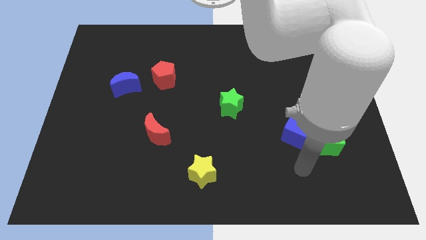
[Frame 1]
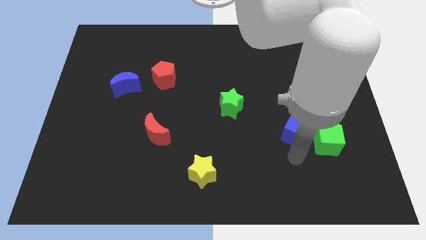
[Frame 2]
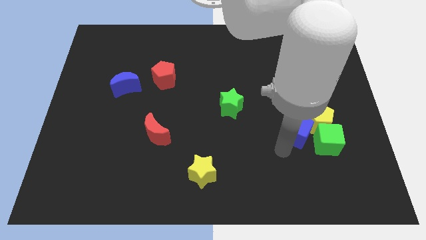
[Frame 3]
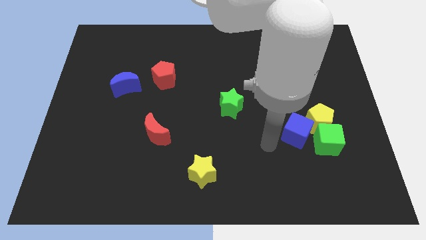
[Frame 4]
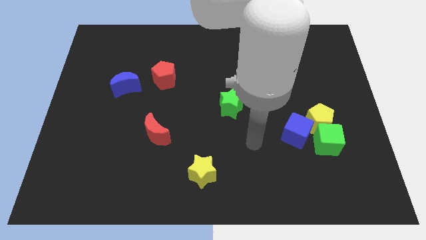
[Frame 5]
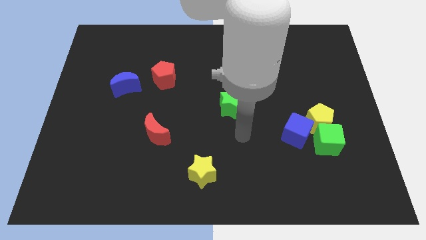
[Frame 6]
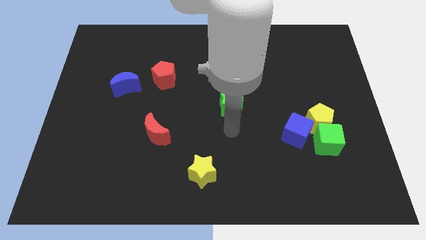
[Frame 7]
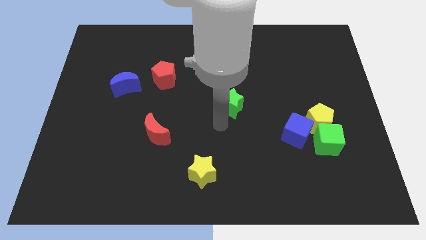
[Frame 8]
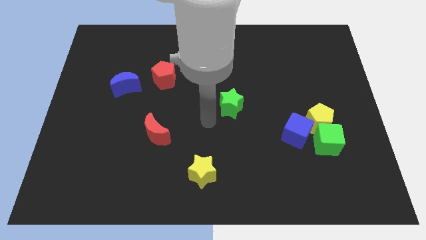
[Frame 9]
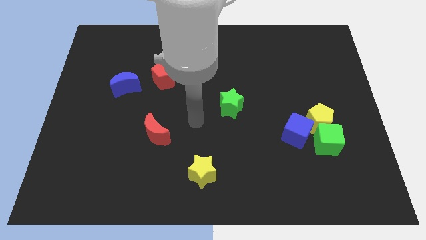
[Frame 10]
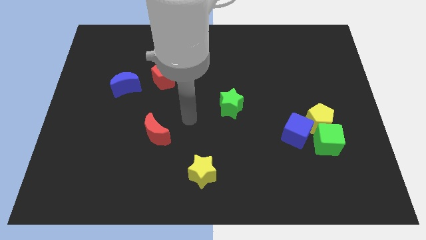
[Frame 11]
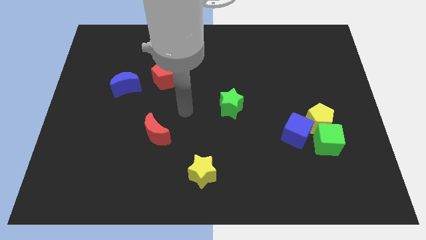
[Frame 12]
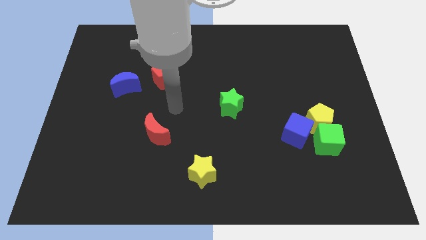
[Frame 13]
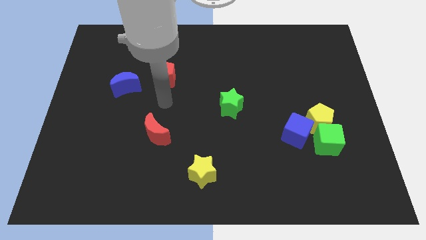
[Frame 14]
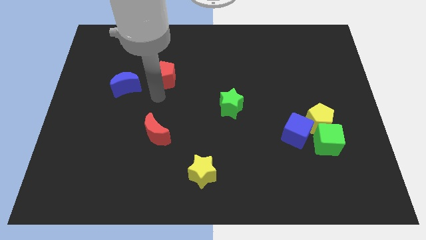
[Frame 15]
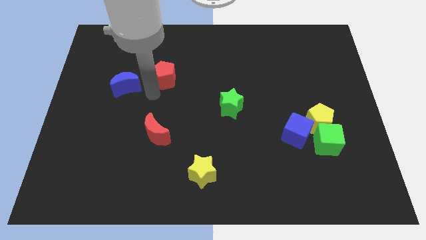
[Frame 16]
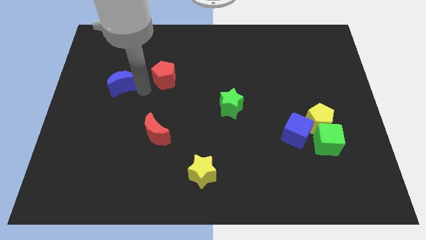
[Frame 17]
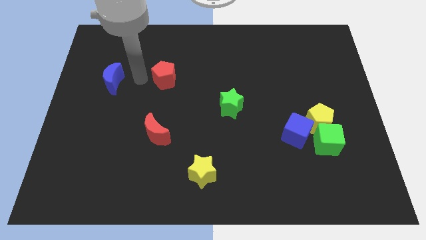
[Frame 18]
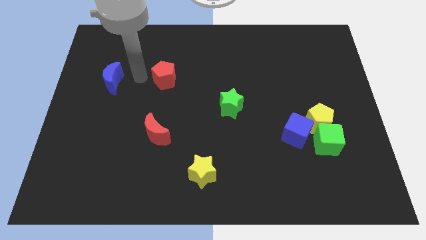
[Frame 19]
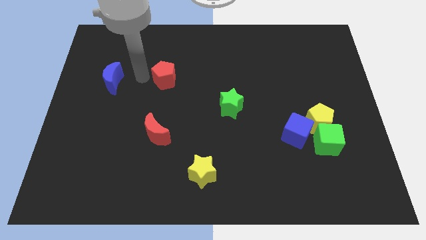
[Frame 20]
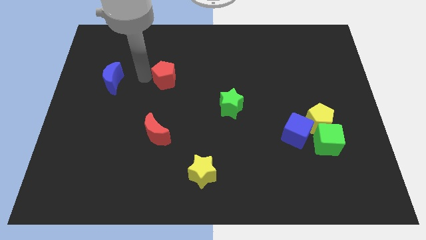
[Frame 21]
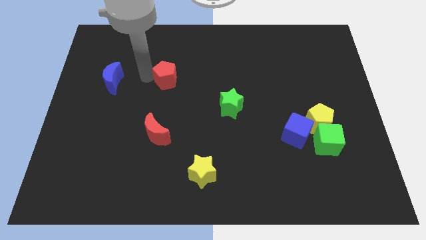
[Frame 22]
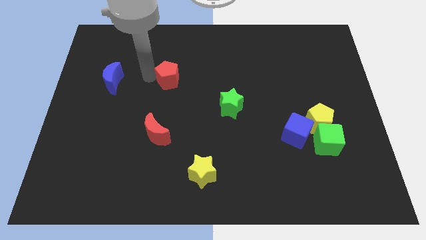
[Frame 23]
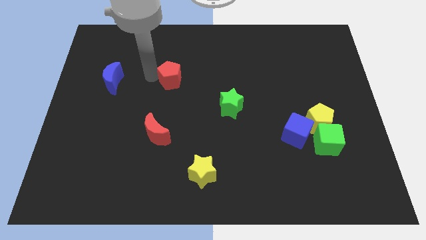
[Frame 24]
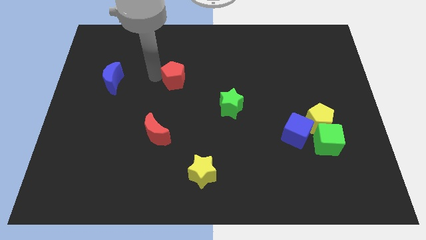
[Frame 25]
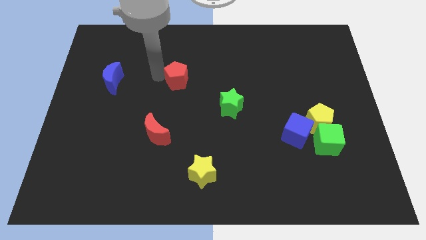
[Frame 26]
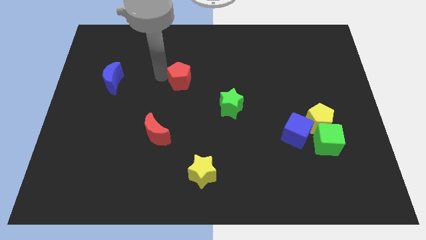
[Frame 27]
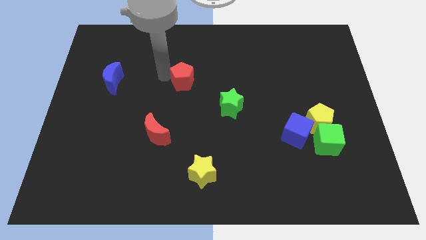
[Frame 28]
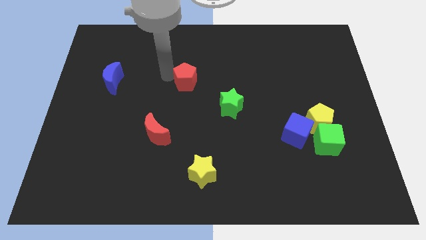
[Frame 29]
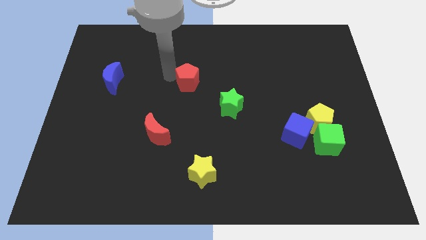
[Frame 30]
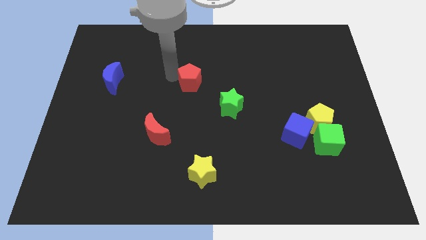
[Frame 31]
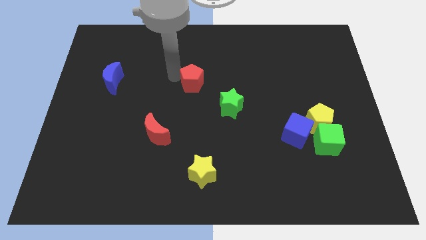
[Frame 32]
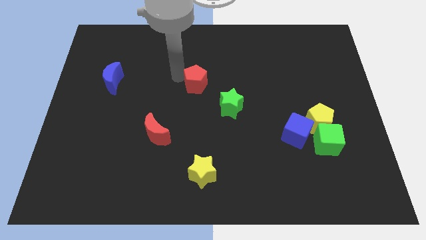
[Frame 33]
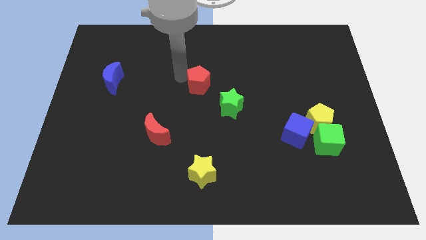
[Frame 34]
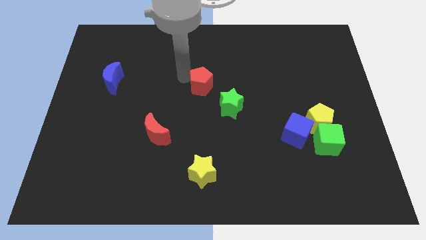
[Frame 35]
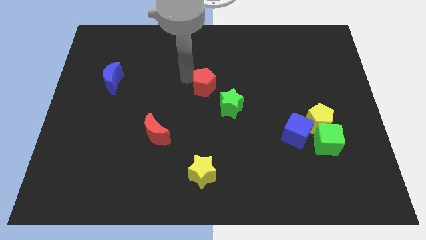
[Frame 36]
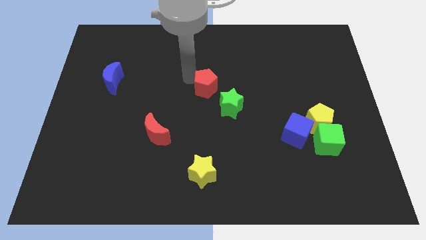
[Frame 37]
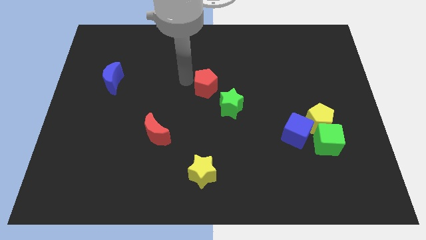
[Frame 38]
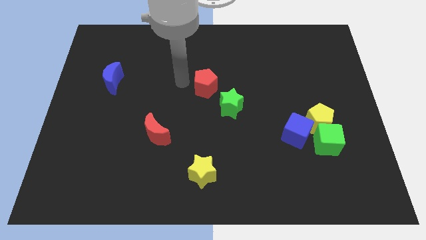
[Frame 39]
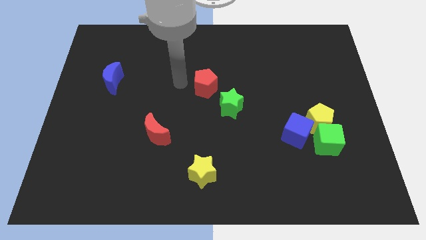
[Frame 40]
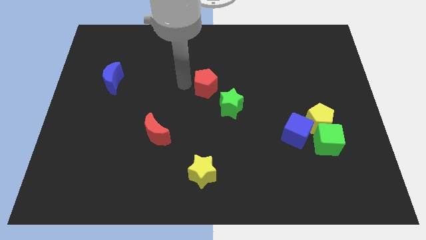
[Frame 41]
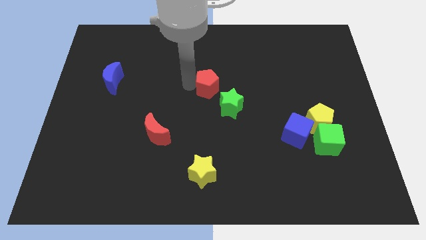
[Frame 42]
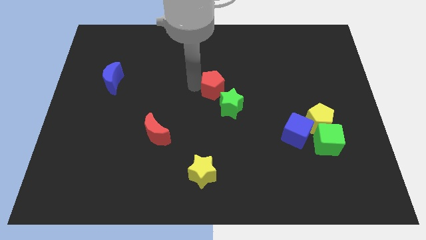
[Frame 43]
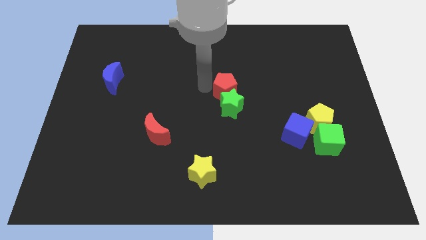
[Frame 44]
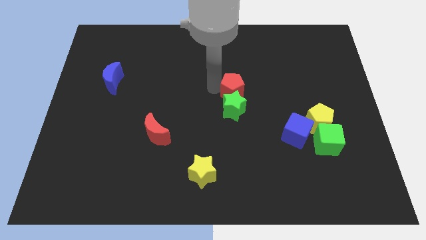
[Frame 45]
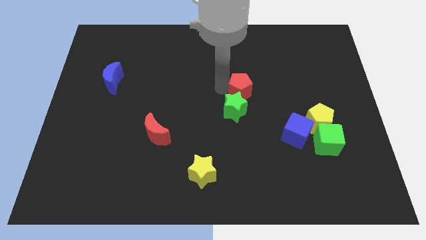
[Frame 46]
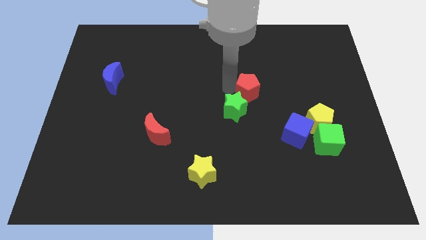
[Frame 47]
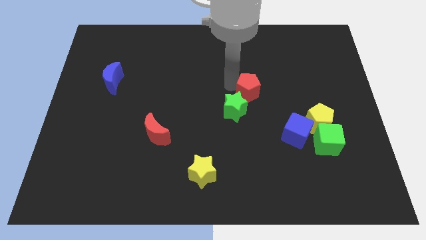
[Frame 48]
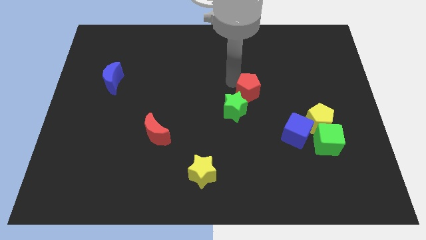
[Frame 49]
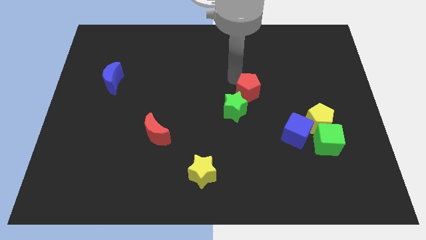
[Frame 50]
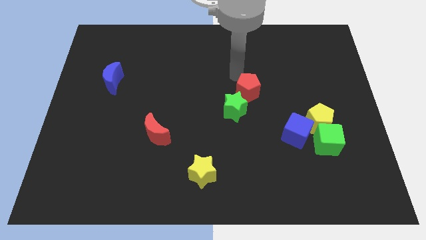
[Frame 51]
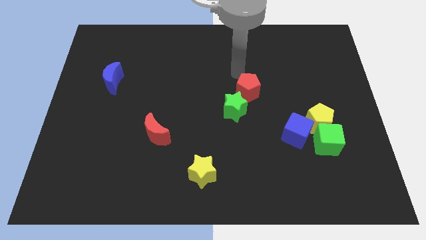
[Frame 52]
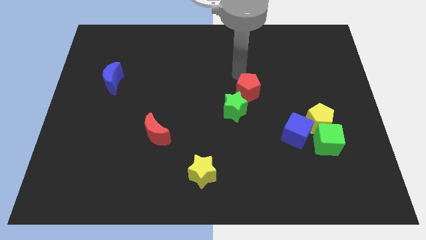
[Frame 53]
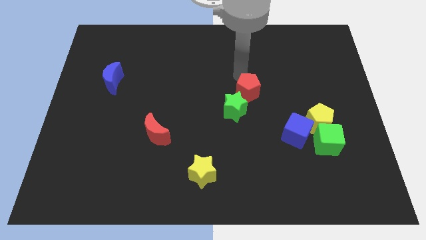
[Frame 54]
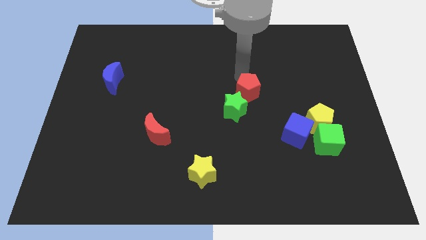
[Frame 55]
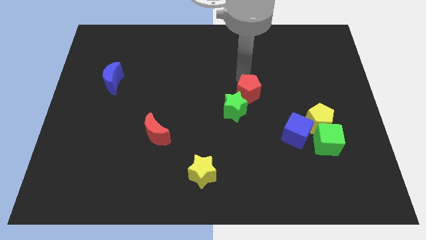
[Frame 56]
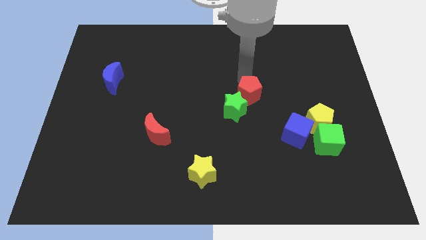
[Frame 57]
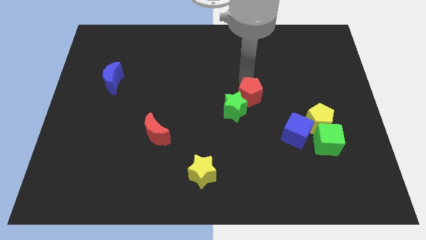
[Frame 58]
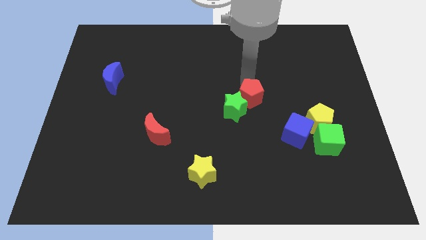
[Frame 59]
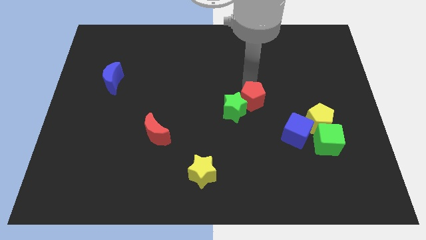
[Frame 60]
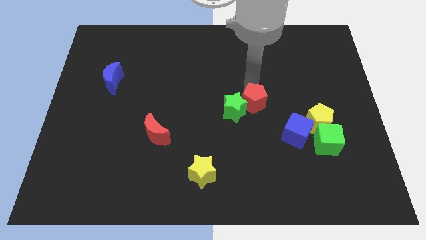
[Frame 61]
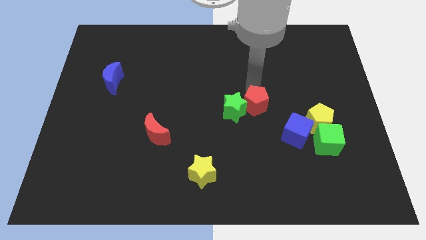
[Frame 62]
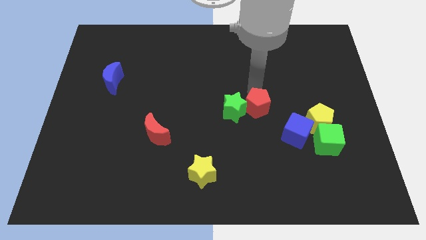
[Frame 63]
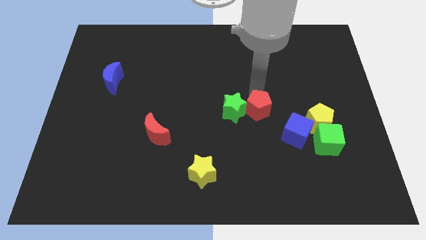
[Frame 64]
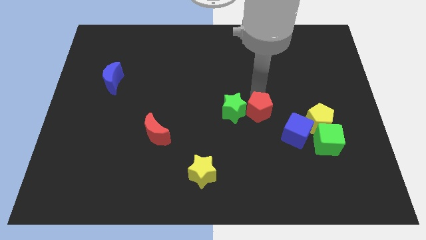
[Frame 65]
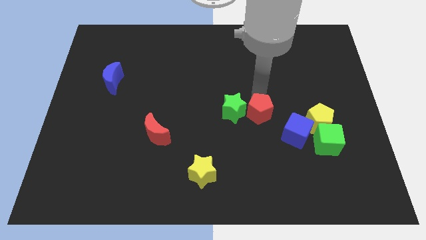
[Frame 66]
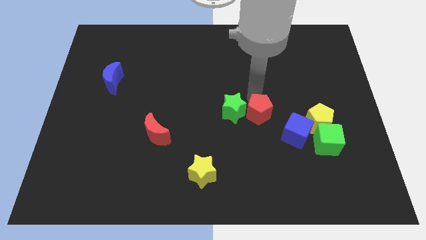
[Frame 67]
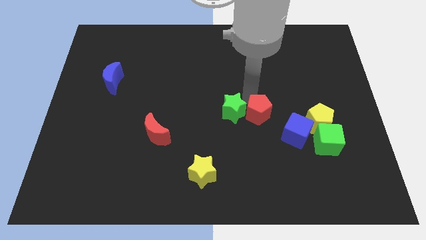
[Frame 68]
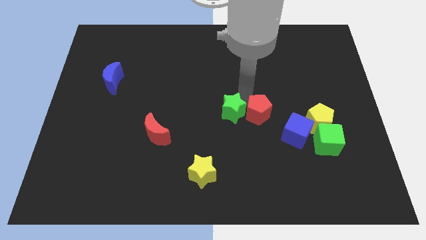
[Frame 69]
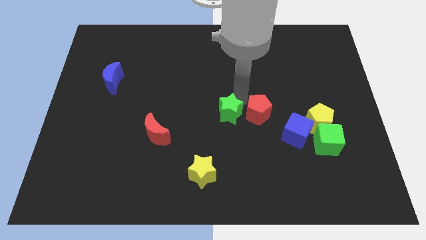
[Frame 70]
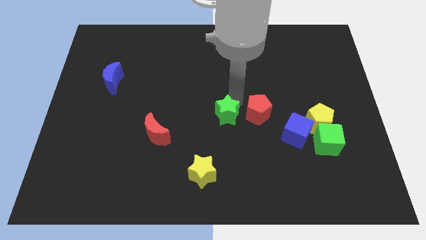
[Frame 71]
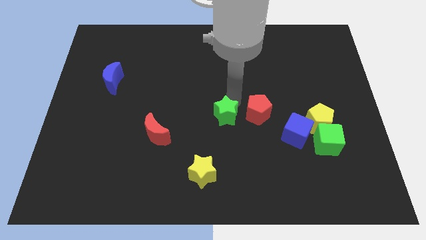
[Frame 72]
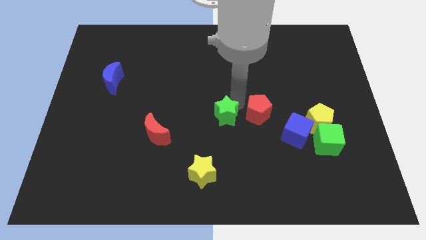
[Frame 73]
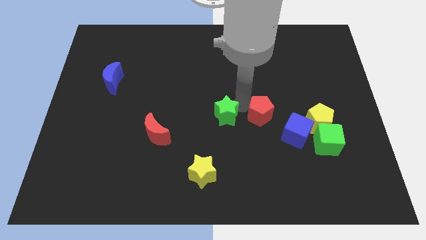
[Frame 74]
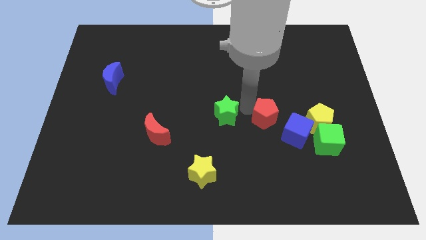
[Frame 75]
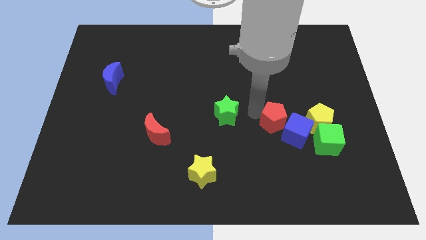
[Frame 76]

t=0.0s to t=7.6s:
push the red pentagon next to the blue cube
